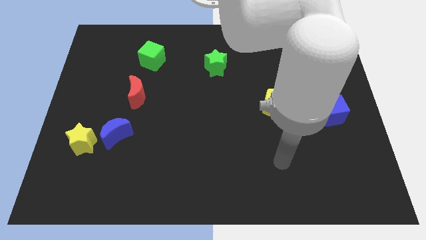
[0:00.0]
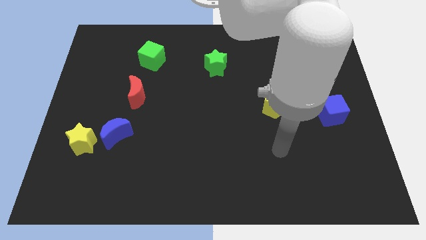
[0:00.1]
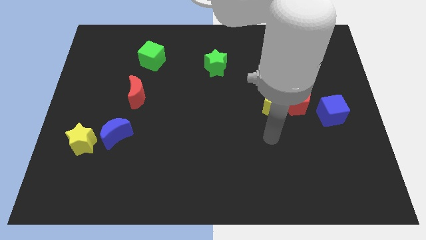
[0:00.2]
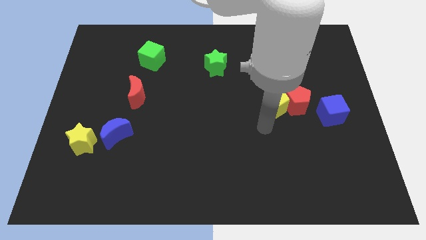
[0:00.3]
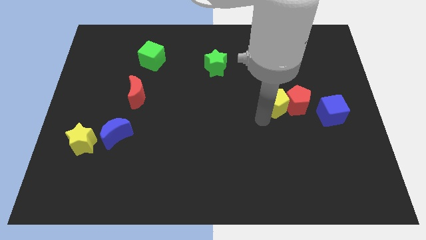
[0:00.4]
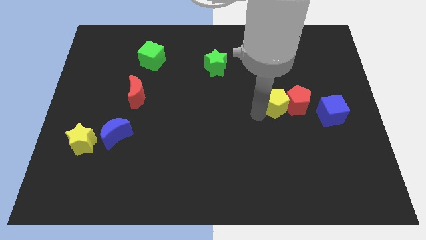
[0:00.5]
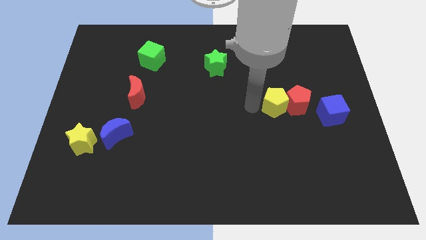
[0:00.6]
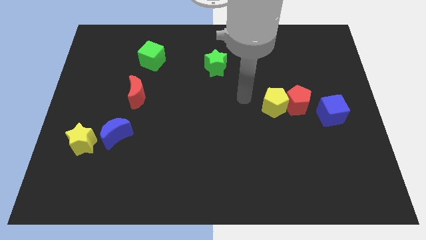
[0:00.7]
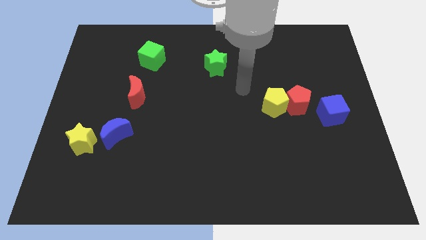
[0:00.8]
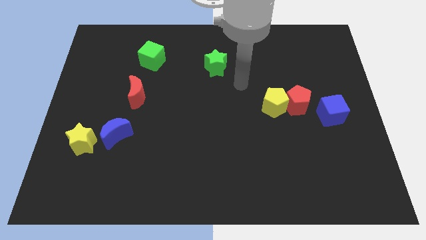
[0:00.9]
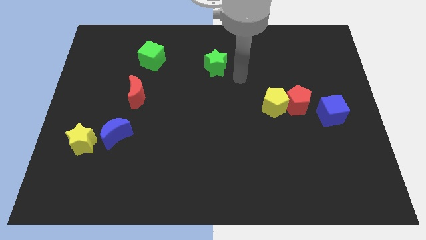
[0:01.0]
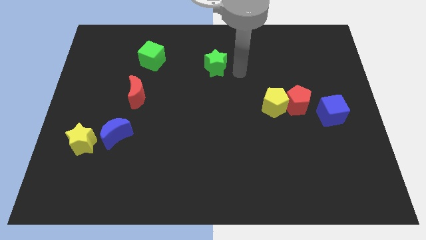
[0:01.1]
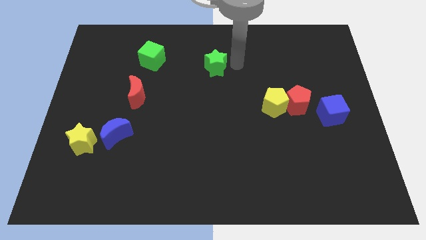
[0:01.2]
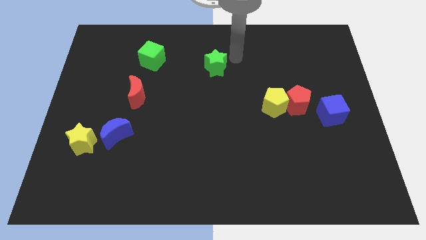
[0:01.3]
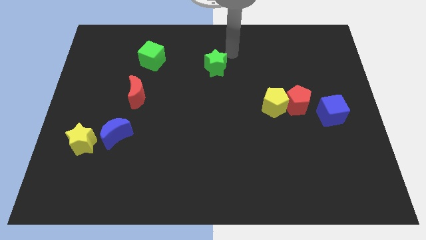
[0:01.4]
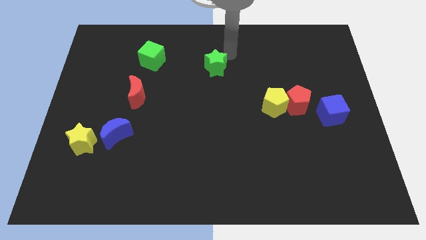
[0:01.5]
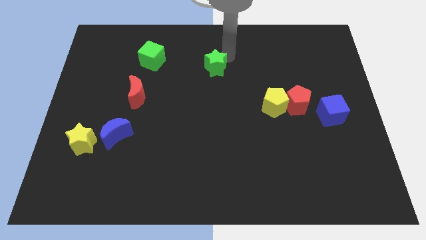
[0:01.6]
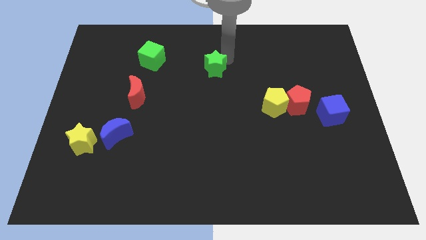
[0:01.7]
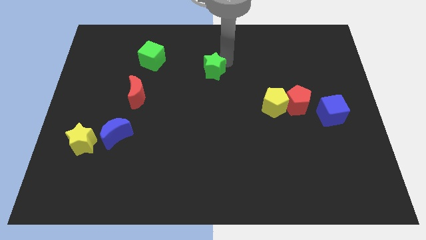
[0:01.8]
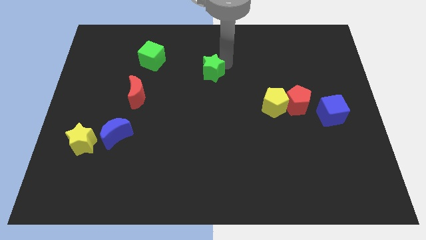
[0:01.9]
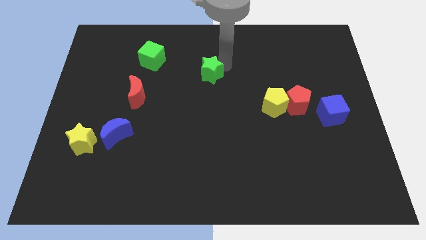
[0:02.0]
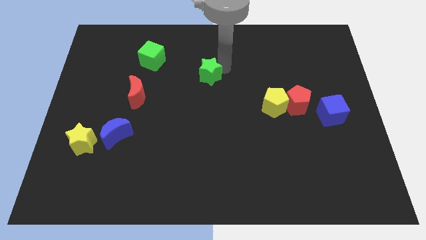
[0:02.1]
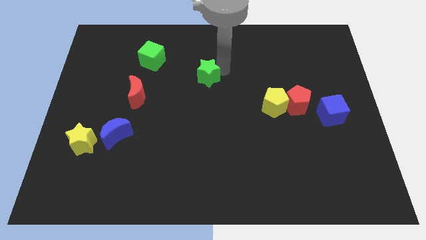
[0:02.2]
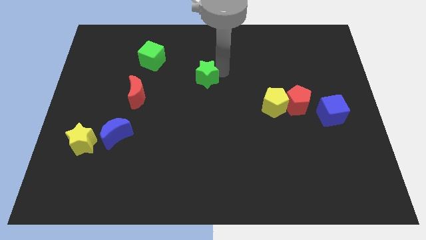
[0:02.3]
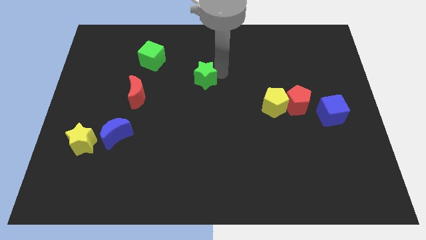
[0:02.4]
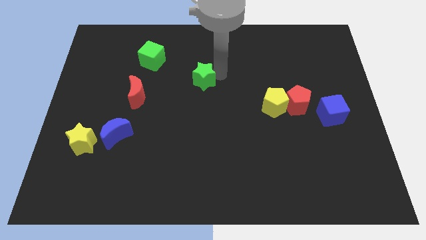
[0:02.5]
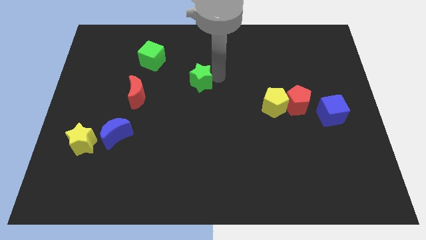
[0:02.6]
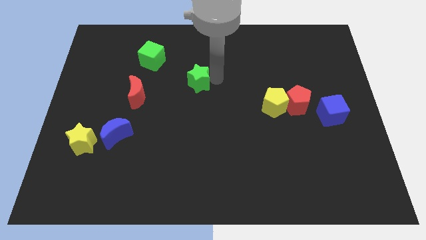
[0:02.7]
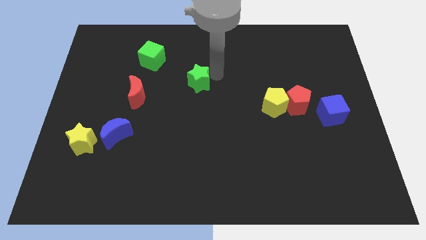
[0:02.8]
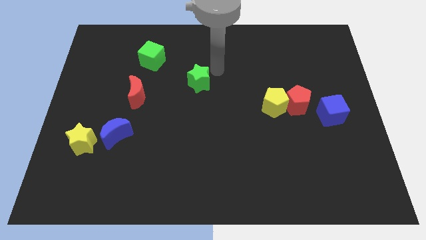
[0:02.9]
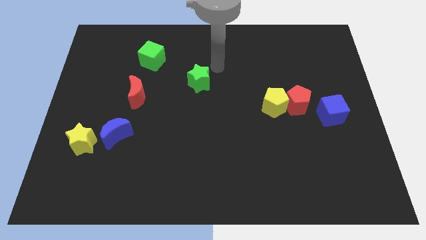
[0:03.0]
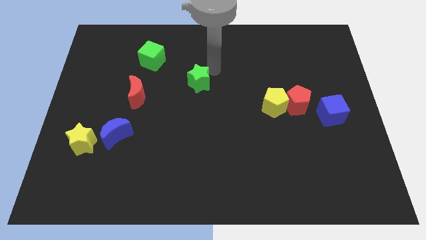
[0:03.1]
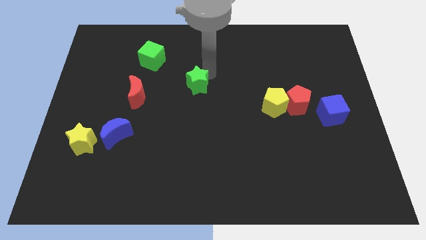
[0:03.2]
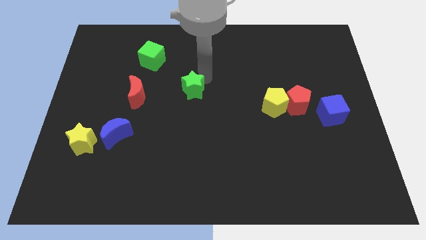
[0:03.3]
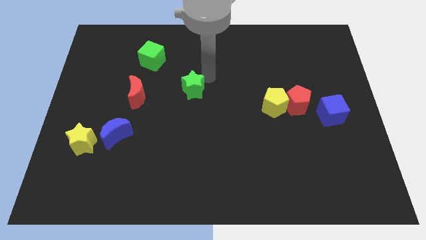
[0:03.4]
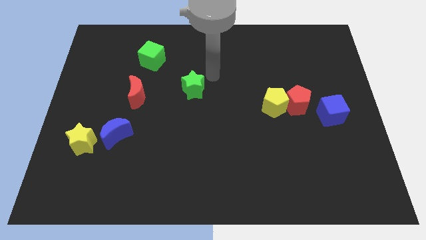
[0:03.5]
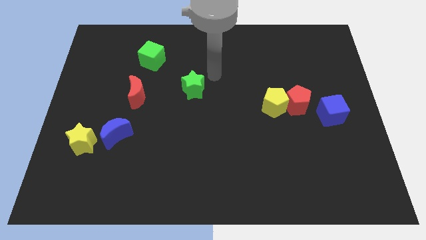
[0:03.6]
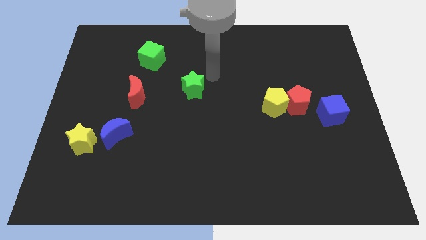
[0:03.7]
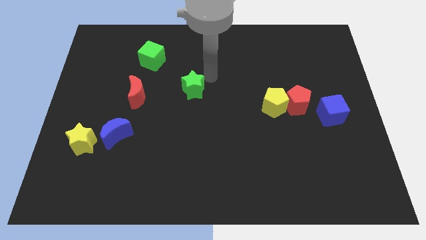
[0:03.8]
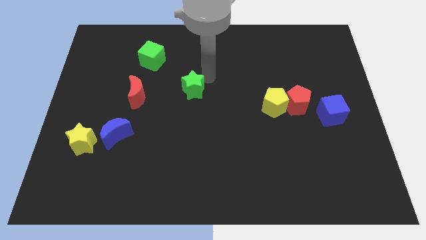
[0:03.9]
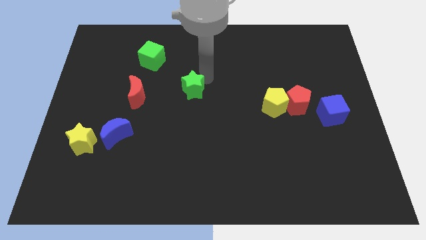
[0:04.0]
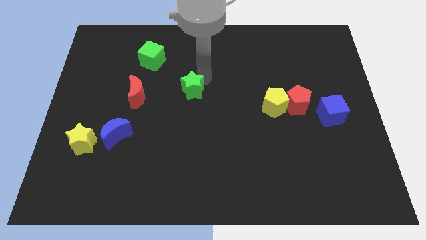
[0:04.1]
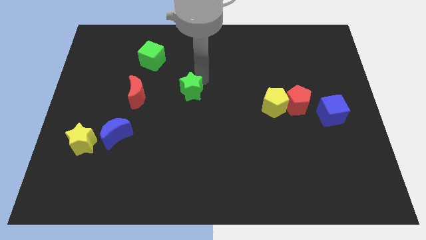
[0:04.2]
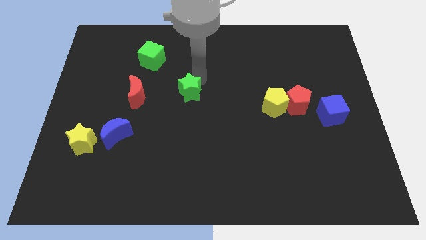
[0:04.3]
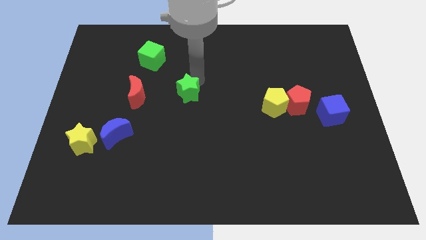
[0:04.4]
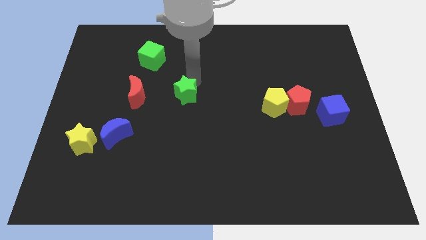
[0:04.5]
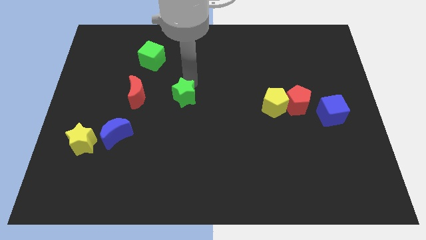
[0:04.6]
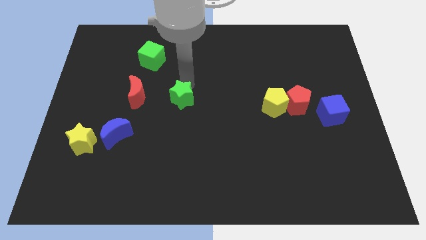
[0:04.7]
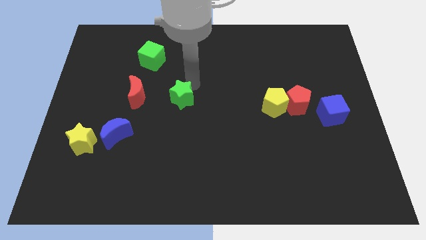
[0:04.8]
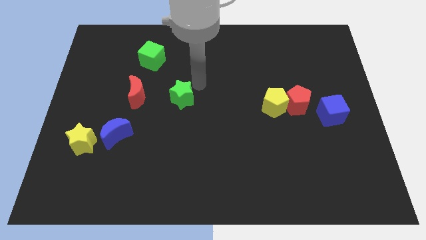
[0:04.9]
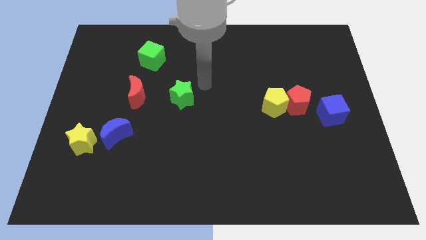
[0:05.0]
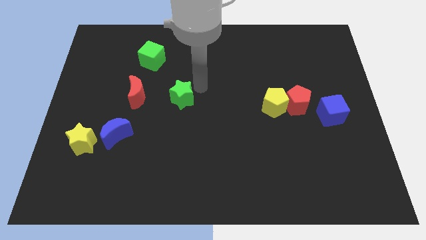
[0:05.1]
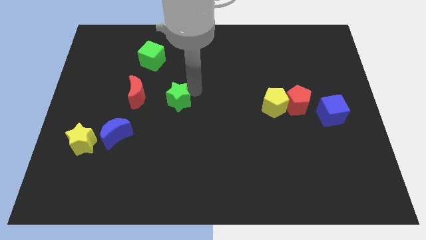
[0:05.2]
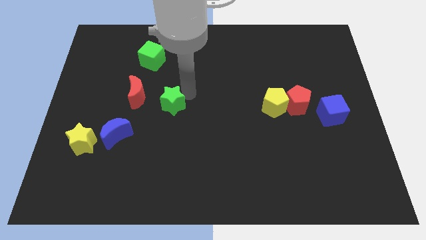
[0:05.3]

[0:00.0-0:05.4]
move the green star to the bottom right side of the red moon

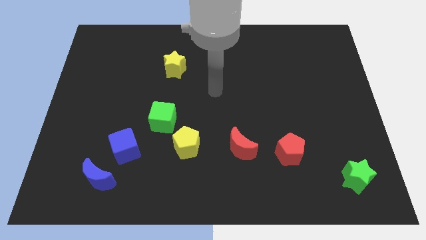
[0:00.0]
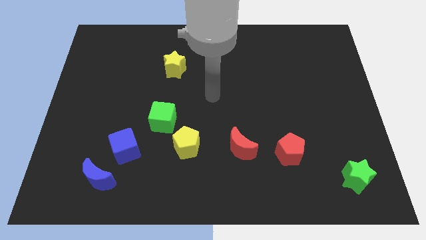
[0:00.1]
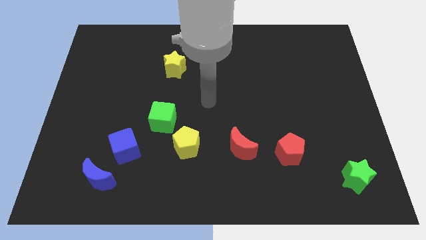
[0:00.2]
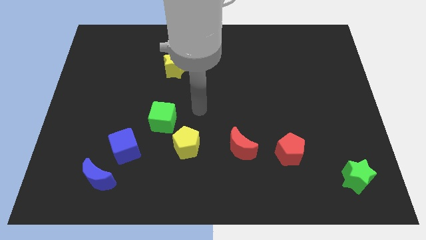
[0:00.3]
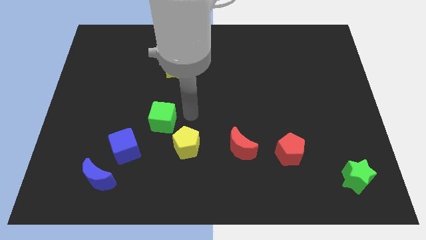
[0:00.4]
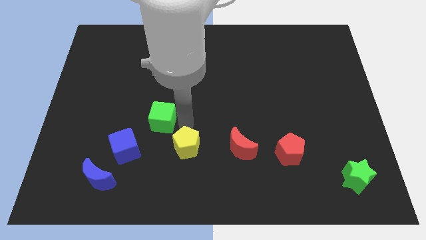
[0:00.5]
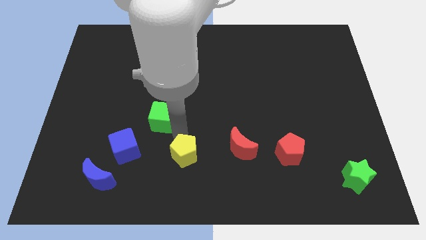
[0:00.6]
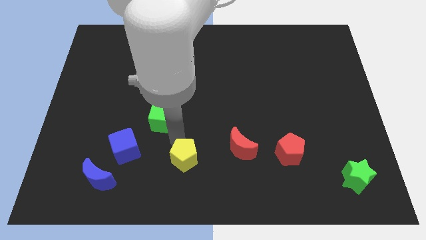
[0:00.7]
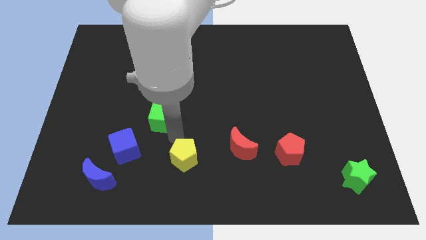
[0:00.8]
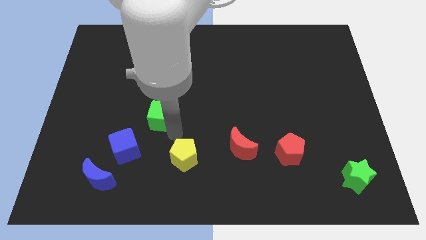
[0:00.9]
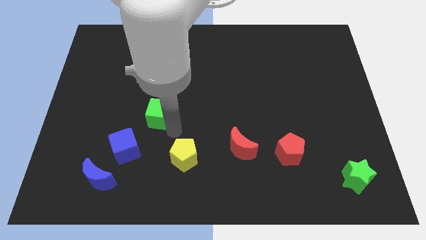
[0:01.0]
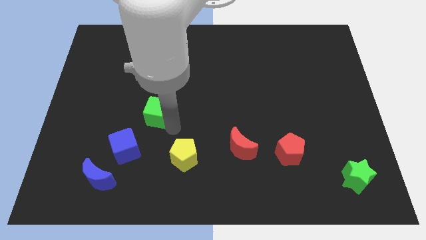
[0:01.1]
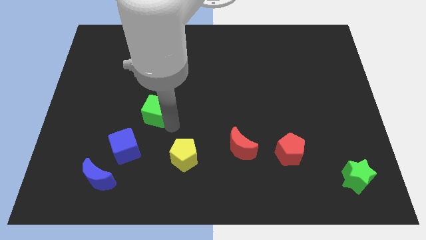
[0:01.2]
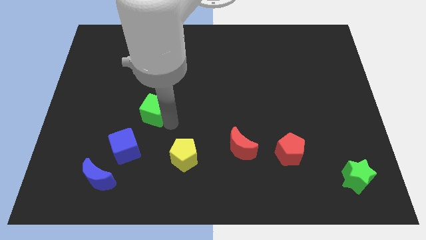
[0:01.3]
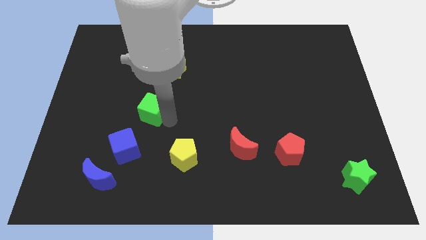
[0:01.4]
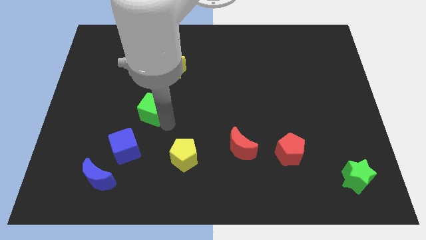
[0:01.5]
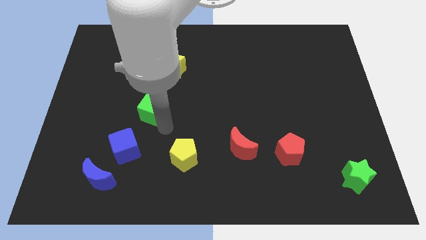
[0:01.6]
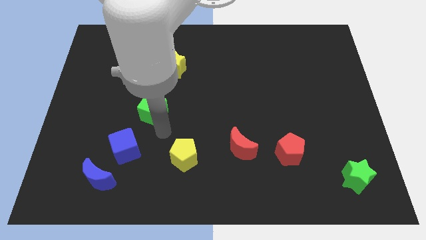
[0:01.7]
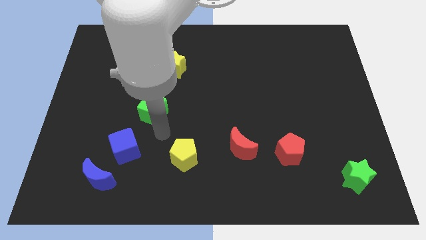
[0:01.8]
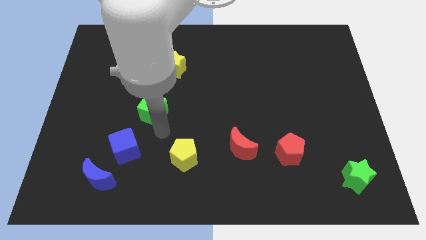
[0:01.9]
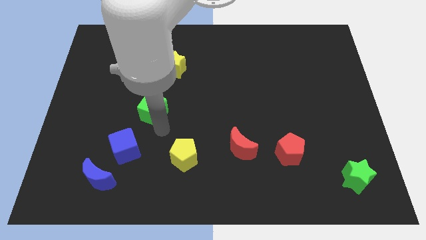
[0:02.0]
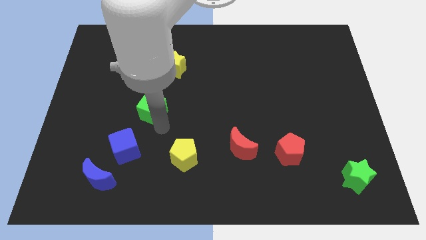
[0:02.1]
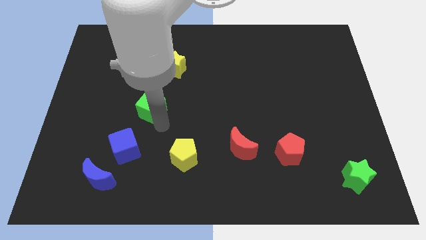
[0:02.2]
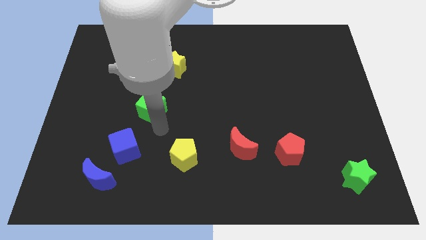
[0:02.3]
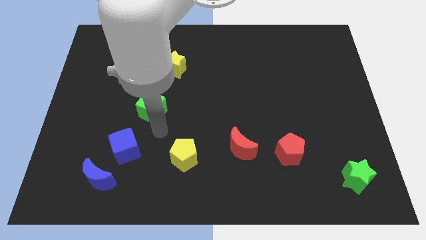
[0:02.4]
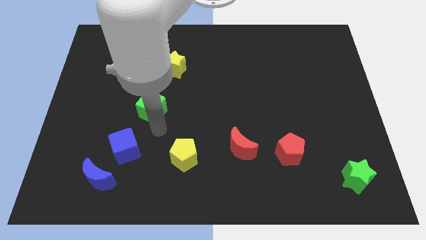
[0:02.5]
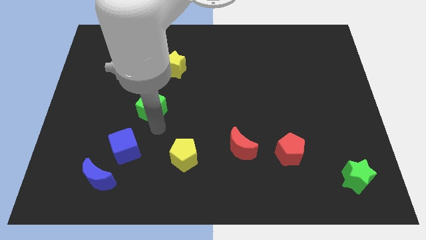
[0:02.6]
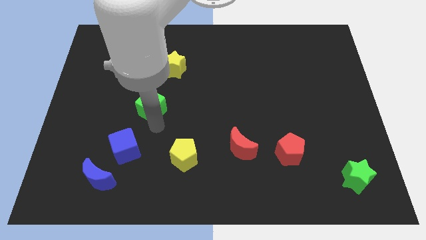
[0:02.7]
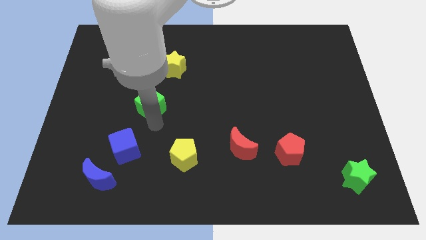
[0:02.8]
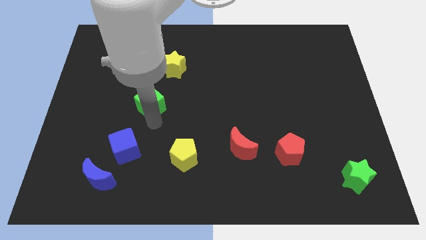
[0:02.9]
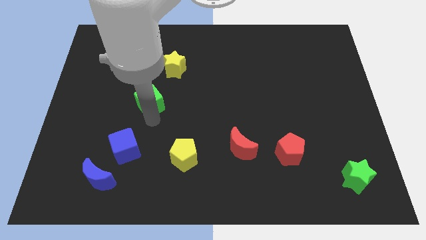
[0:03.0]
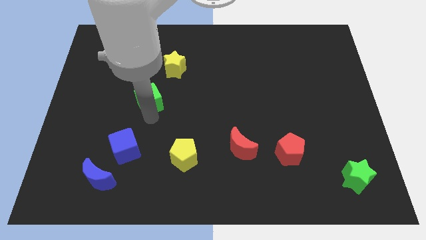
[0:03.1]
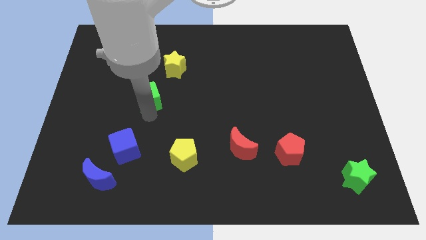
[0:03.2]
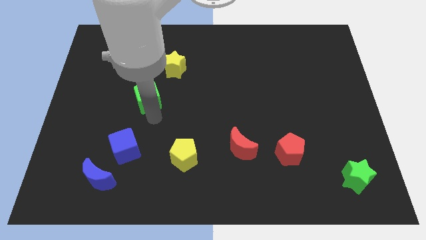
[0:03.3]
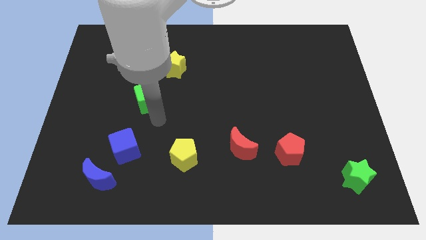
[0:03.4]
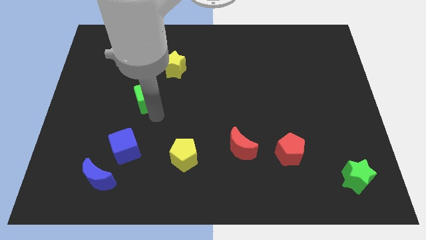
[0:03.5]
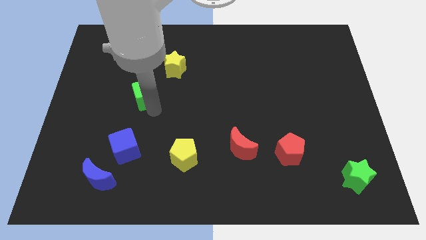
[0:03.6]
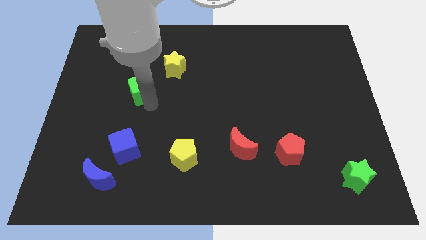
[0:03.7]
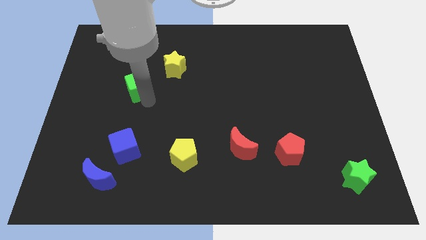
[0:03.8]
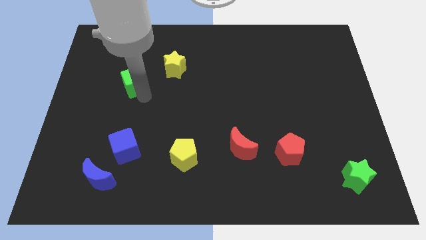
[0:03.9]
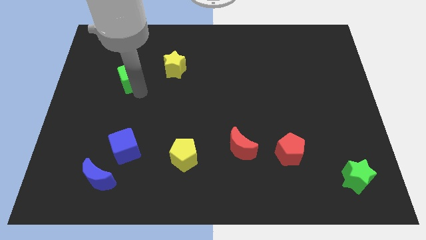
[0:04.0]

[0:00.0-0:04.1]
push the green cube just left of the yellow star
